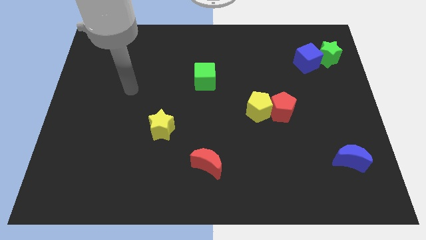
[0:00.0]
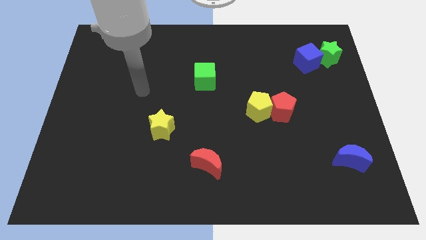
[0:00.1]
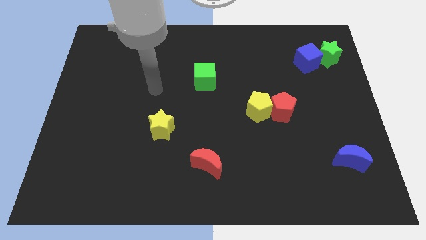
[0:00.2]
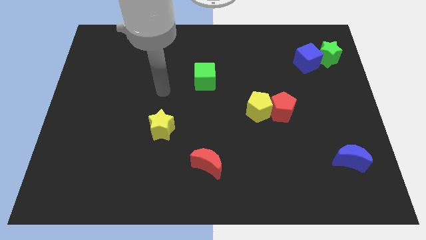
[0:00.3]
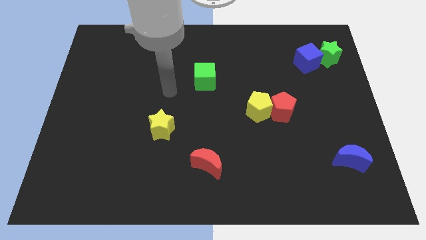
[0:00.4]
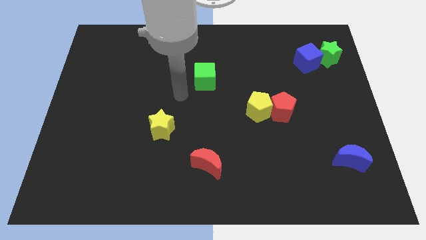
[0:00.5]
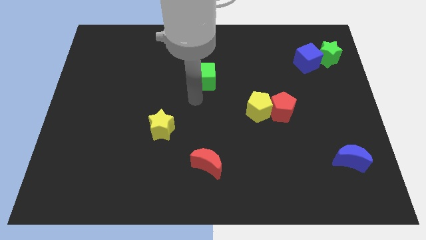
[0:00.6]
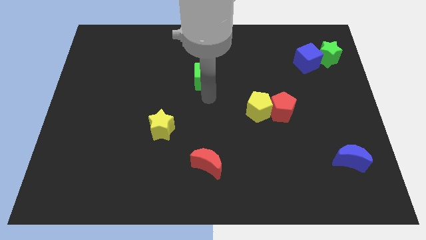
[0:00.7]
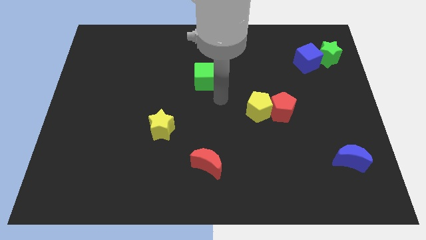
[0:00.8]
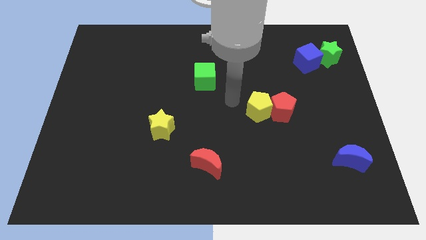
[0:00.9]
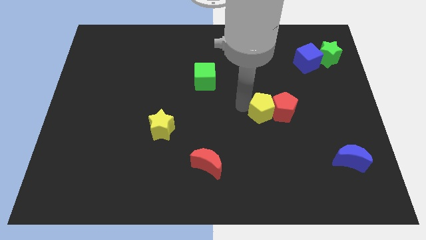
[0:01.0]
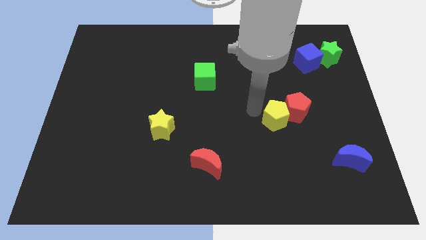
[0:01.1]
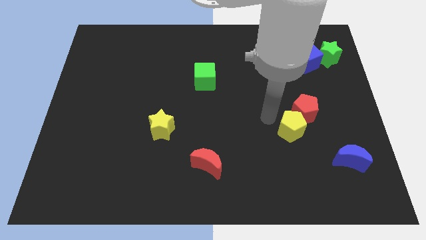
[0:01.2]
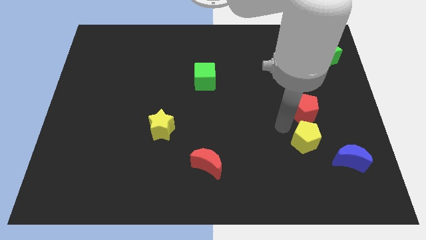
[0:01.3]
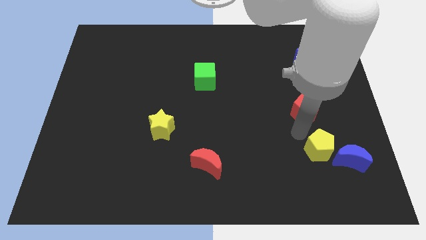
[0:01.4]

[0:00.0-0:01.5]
separate the red pentagon from the yellow pentagon

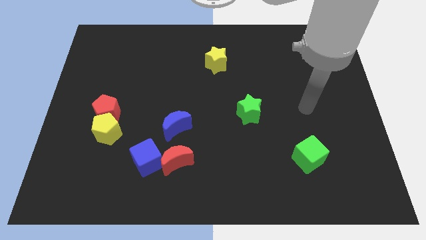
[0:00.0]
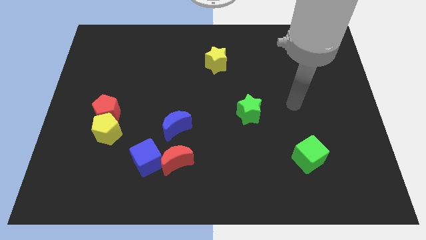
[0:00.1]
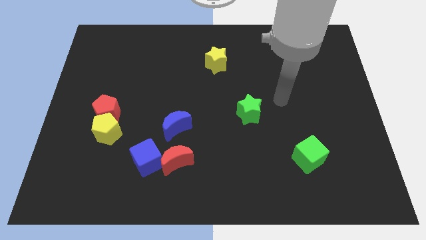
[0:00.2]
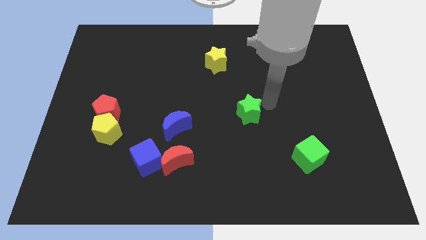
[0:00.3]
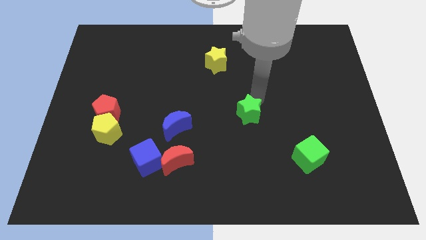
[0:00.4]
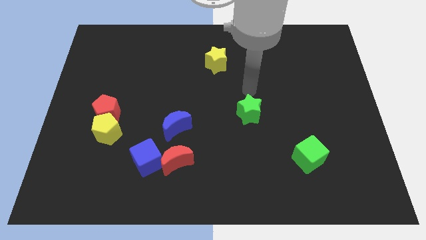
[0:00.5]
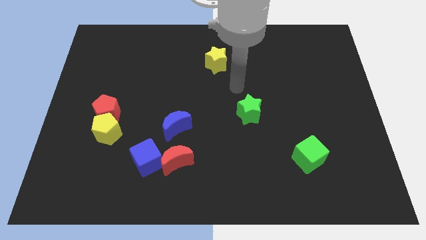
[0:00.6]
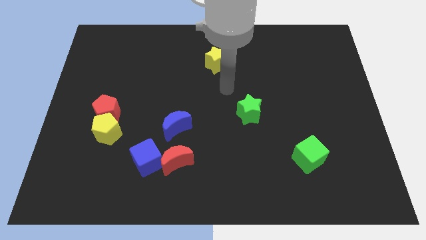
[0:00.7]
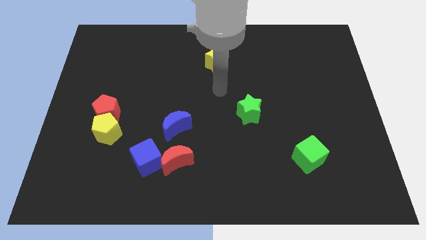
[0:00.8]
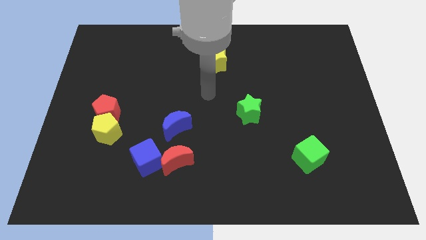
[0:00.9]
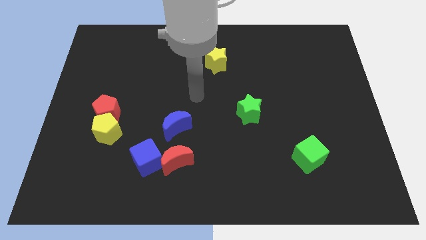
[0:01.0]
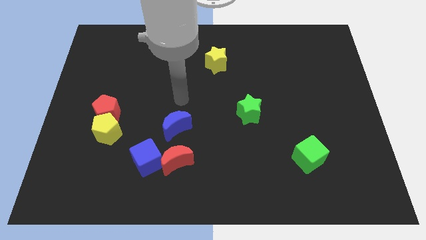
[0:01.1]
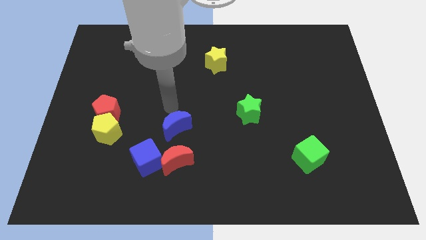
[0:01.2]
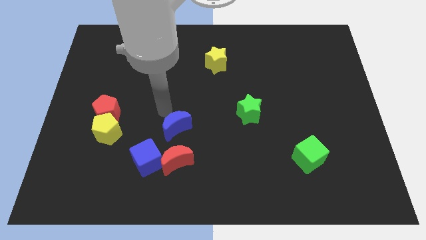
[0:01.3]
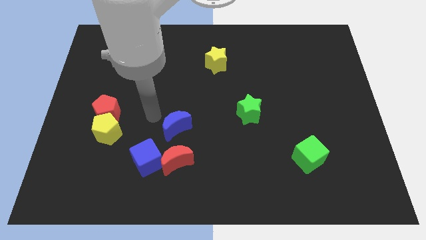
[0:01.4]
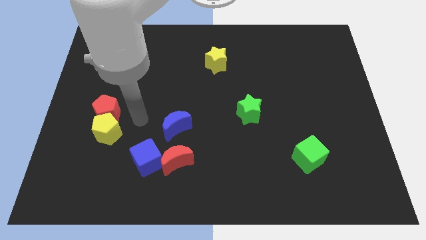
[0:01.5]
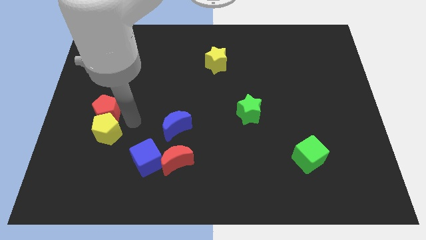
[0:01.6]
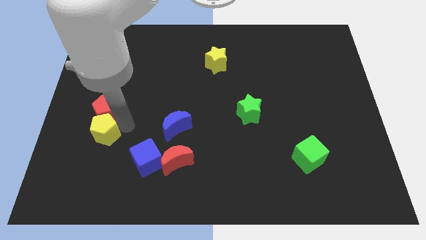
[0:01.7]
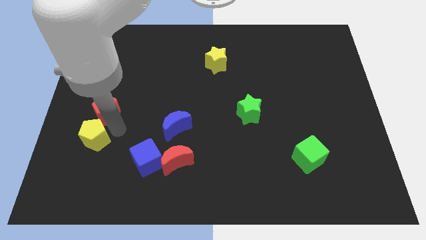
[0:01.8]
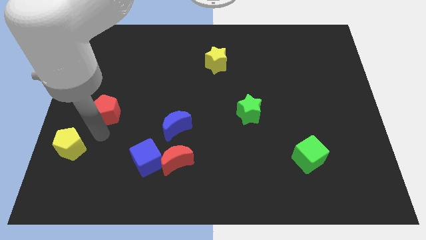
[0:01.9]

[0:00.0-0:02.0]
move the red pentagon away from the yellow pentagon

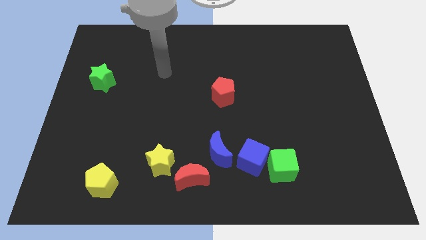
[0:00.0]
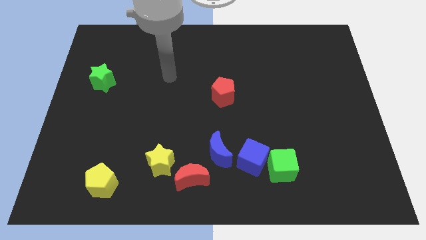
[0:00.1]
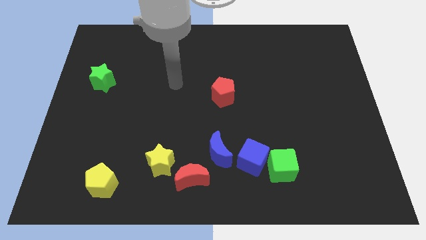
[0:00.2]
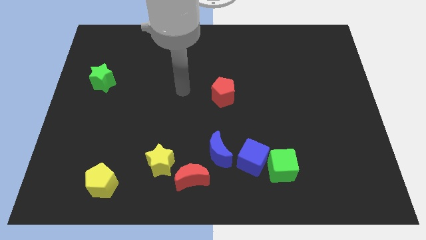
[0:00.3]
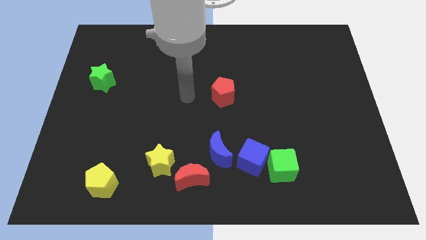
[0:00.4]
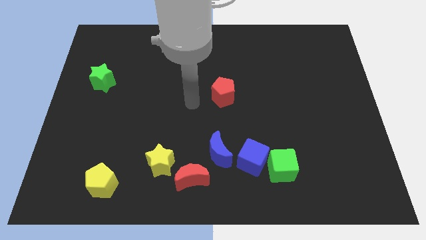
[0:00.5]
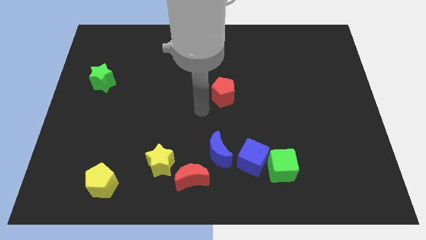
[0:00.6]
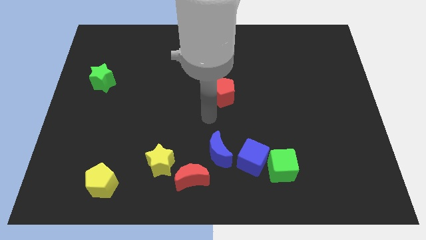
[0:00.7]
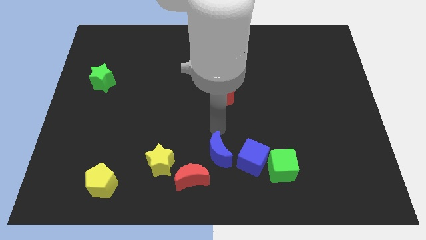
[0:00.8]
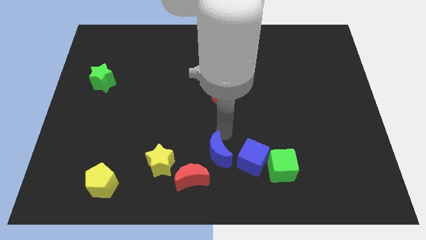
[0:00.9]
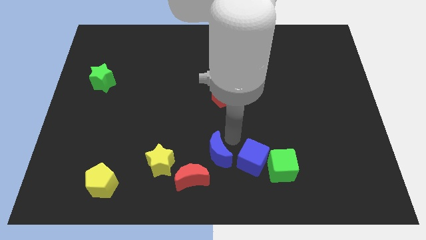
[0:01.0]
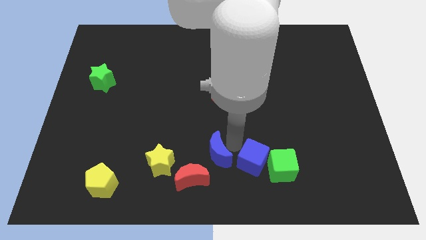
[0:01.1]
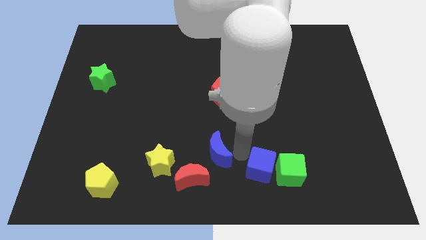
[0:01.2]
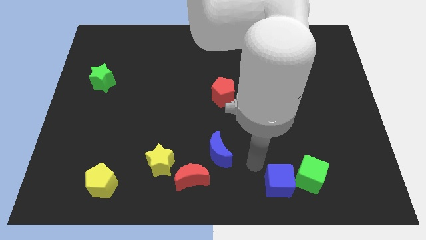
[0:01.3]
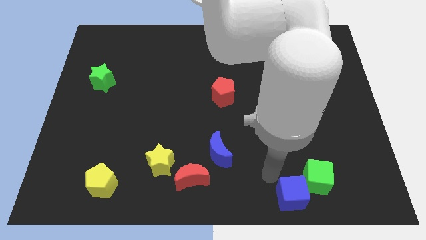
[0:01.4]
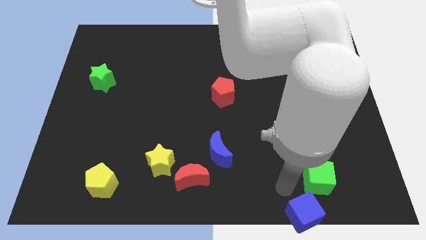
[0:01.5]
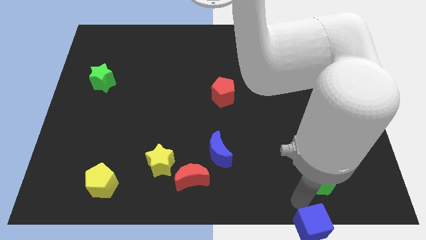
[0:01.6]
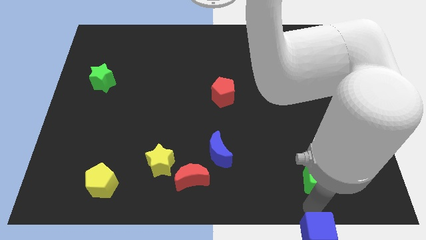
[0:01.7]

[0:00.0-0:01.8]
pull the green cube apart from the blue cube

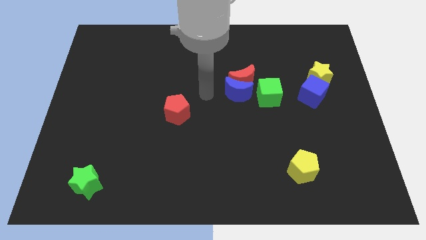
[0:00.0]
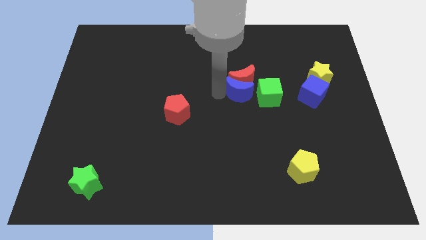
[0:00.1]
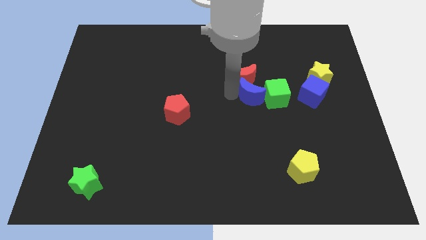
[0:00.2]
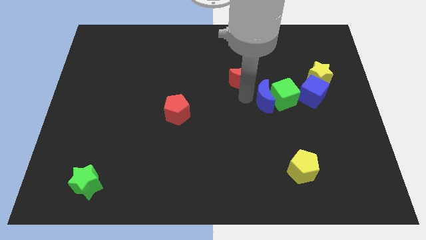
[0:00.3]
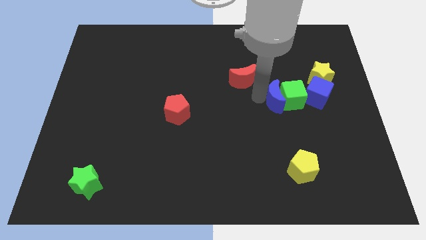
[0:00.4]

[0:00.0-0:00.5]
move the red moon away from the blue moon and green cube

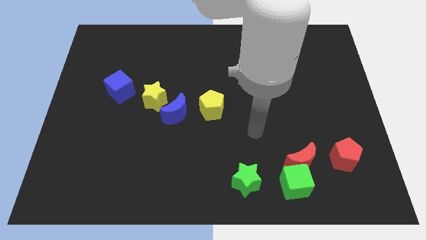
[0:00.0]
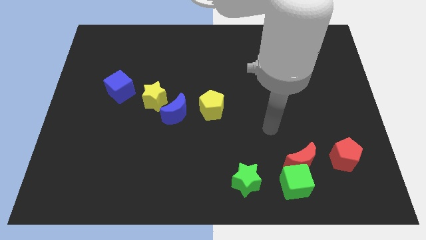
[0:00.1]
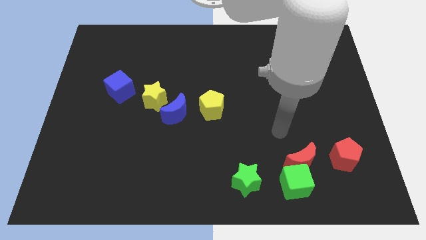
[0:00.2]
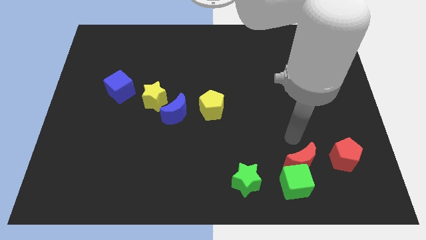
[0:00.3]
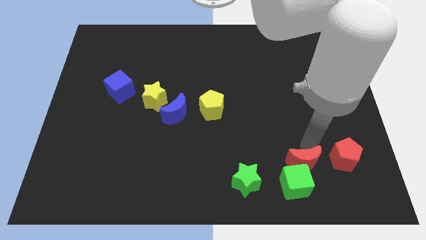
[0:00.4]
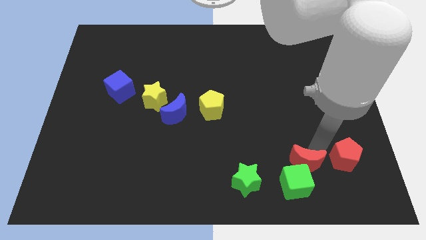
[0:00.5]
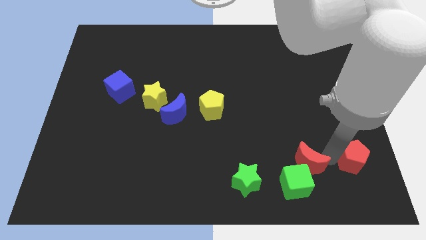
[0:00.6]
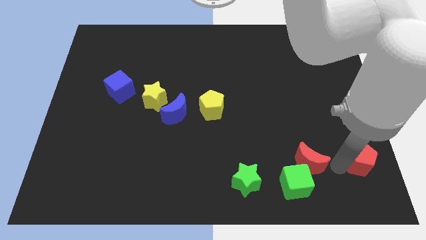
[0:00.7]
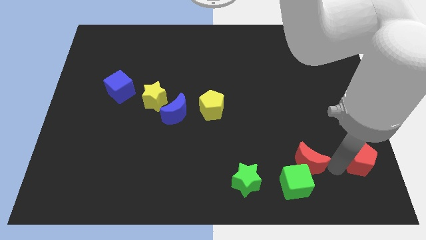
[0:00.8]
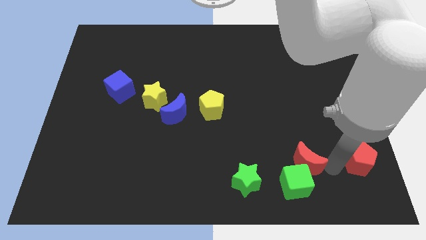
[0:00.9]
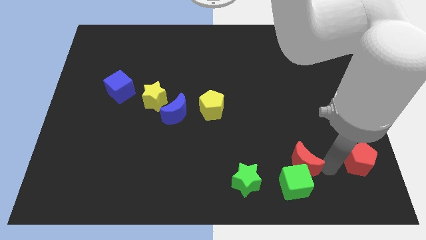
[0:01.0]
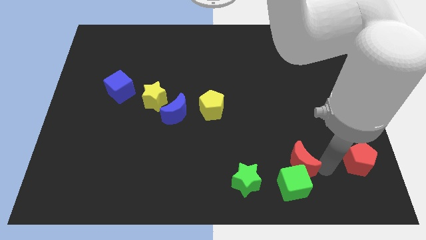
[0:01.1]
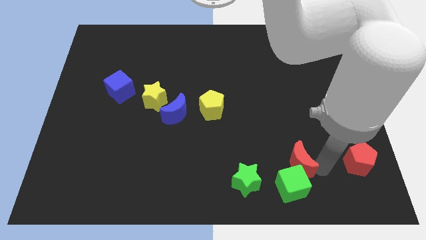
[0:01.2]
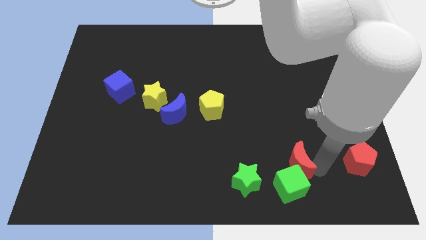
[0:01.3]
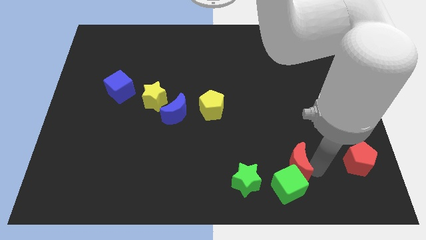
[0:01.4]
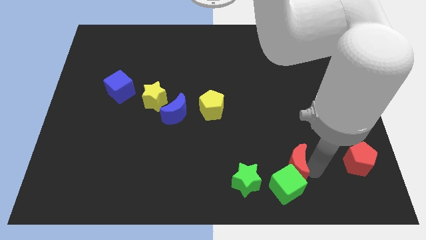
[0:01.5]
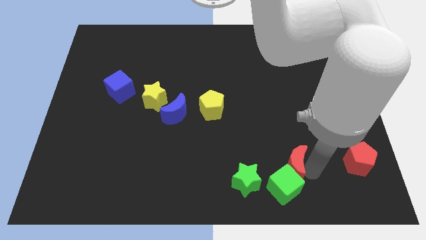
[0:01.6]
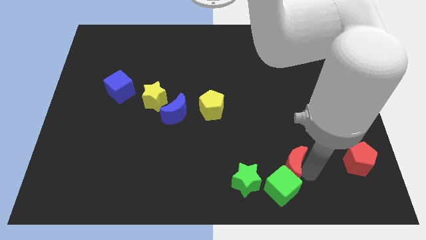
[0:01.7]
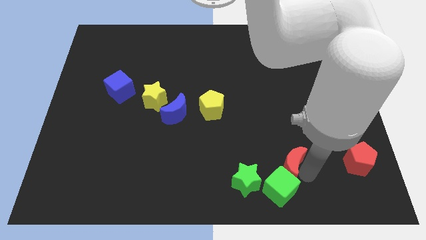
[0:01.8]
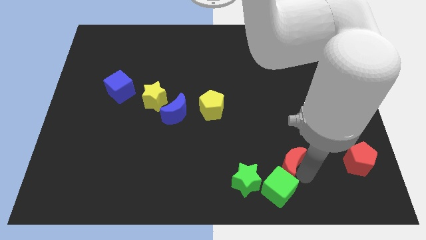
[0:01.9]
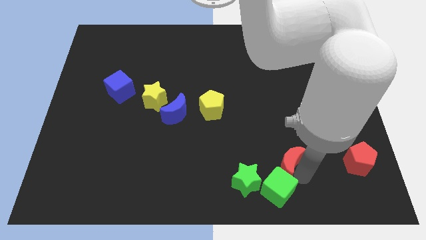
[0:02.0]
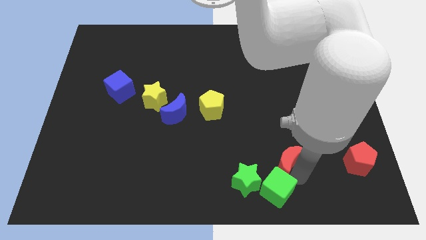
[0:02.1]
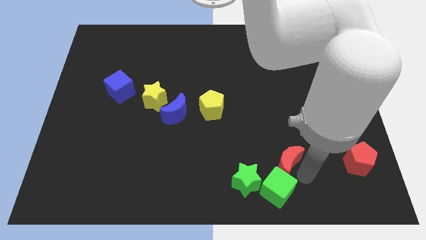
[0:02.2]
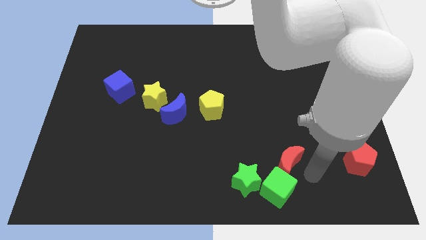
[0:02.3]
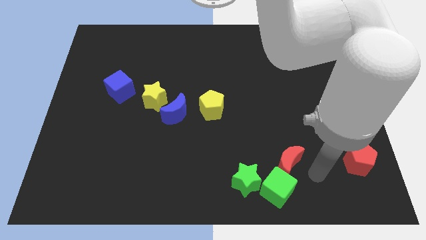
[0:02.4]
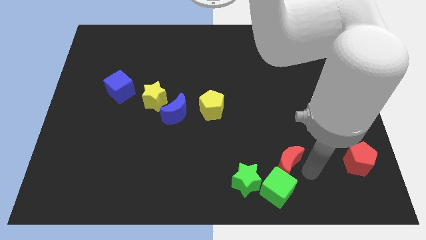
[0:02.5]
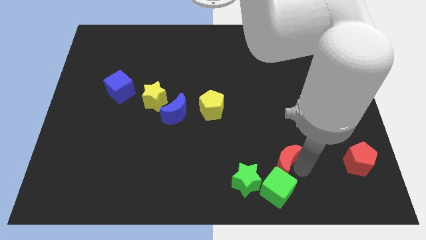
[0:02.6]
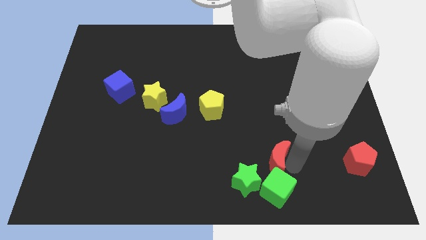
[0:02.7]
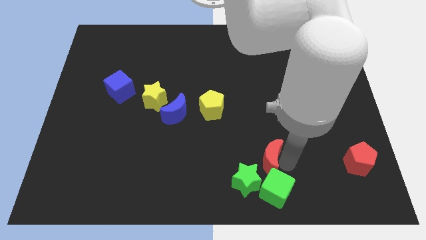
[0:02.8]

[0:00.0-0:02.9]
move the red moon away from the green cube and red pentagon

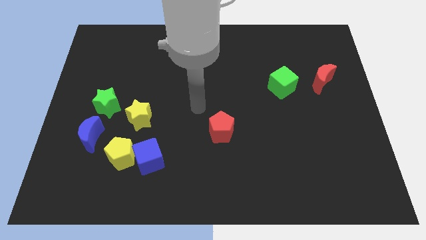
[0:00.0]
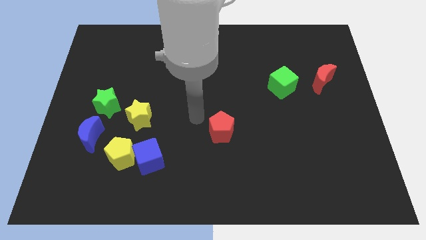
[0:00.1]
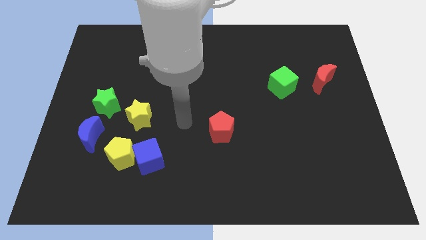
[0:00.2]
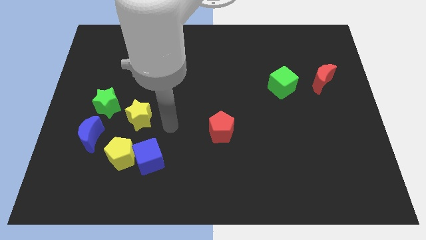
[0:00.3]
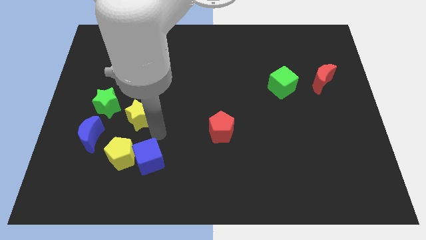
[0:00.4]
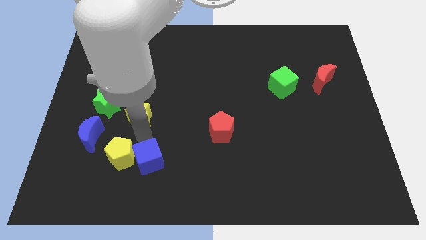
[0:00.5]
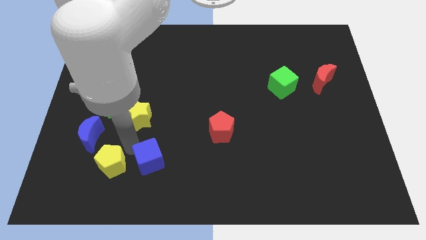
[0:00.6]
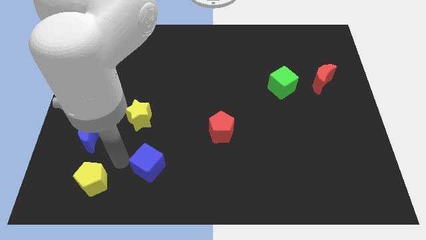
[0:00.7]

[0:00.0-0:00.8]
move the blue cube away from the yellow pentagon
